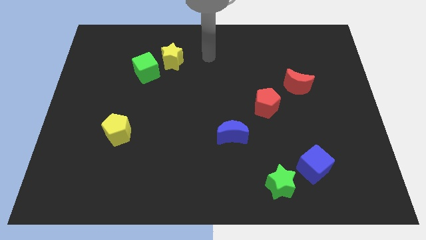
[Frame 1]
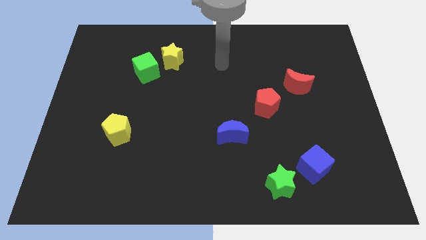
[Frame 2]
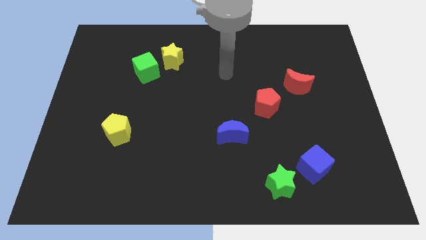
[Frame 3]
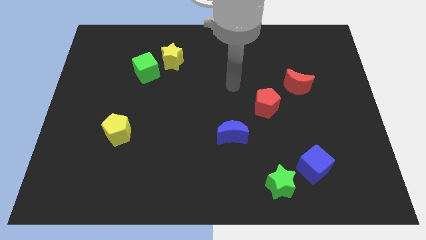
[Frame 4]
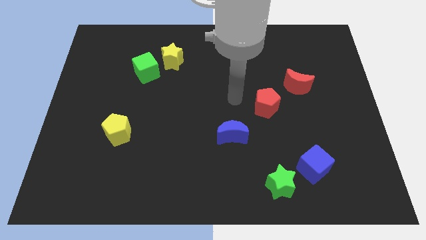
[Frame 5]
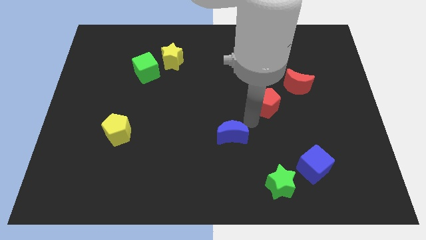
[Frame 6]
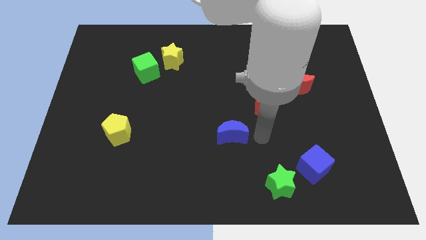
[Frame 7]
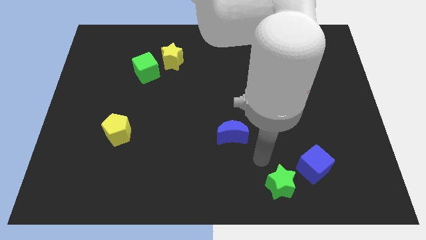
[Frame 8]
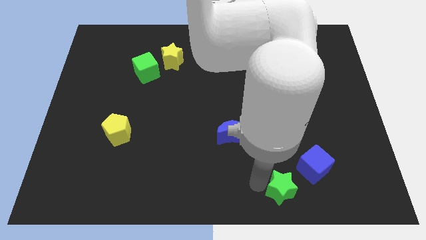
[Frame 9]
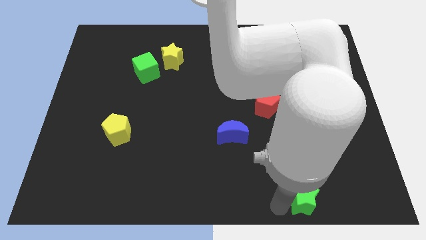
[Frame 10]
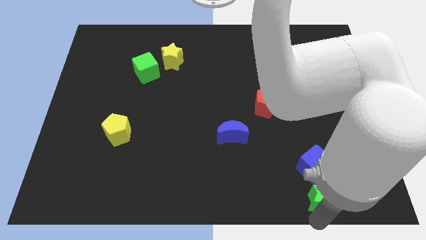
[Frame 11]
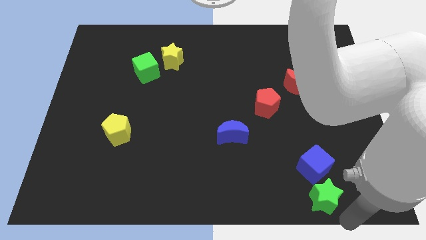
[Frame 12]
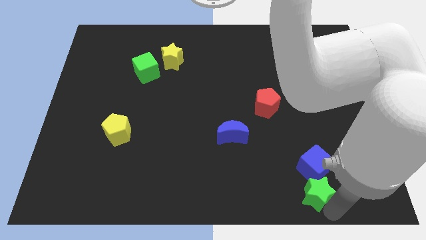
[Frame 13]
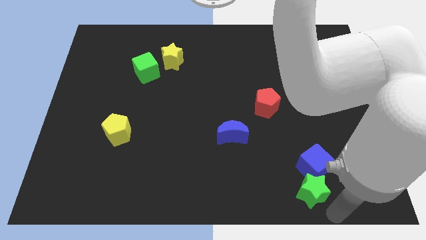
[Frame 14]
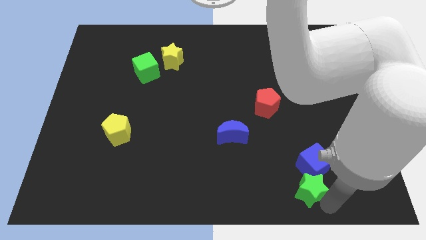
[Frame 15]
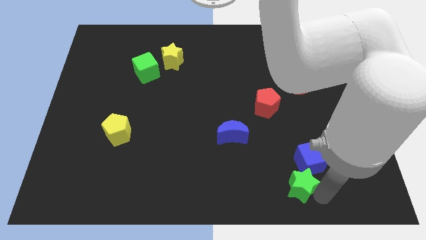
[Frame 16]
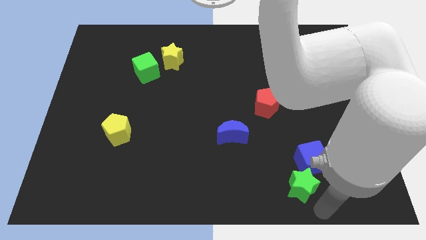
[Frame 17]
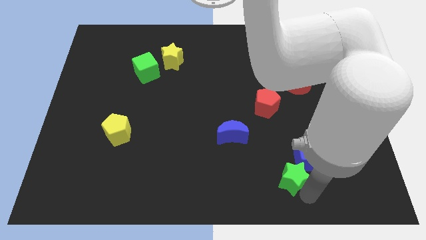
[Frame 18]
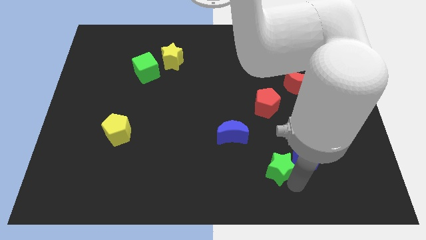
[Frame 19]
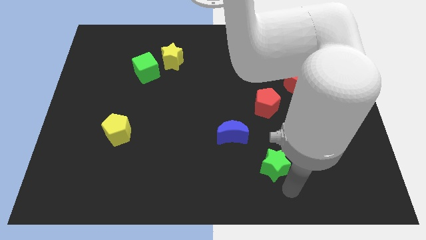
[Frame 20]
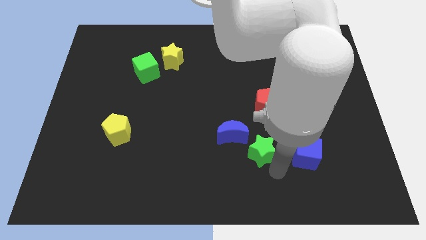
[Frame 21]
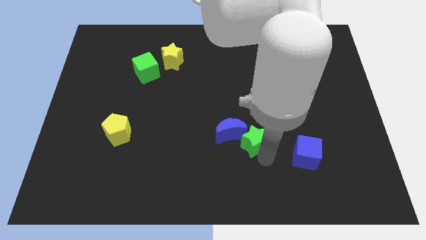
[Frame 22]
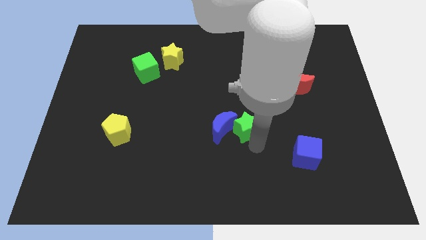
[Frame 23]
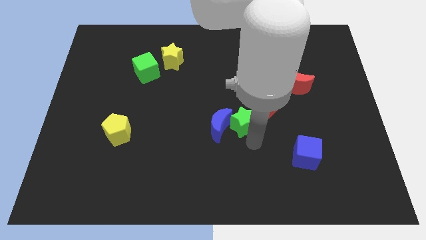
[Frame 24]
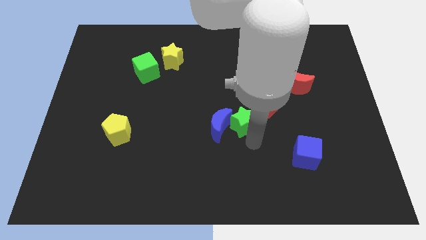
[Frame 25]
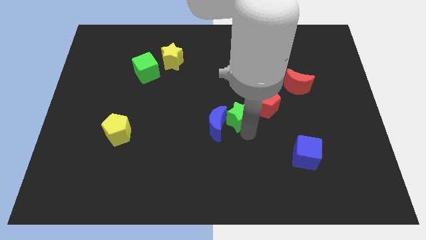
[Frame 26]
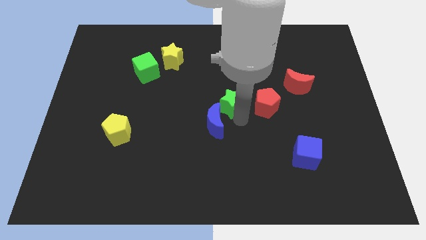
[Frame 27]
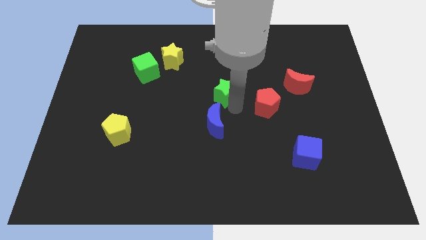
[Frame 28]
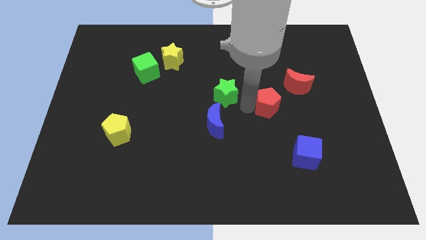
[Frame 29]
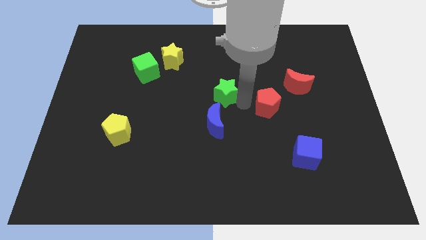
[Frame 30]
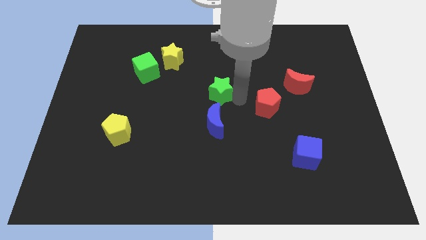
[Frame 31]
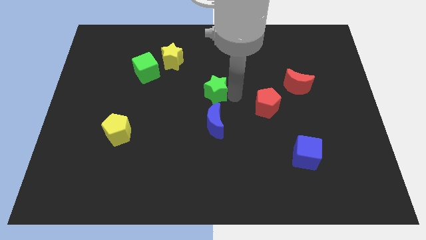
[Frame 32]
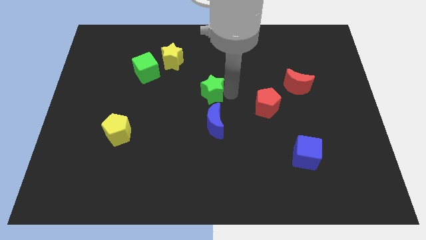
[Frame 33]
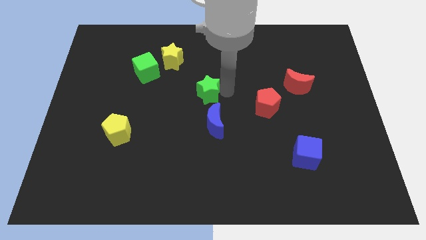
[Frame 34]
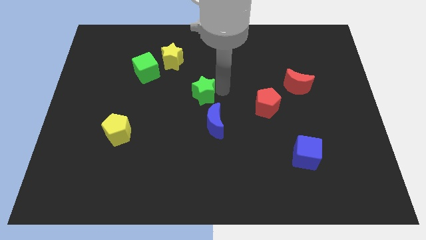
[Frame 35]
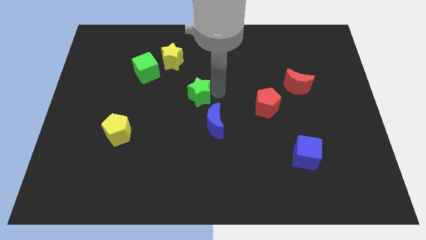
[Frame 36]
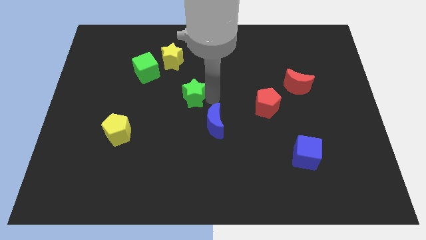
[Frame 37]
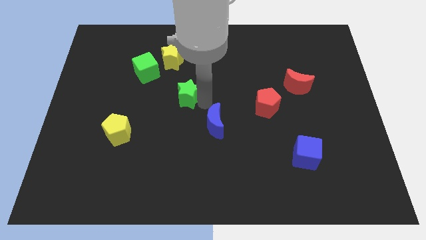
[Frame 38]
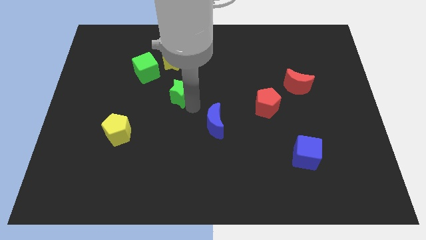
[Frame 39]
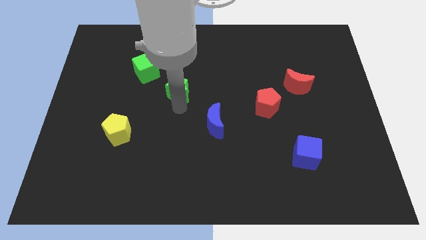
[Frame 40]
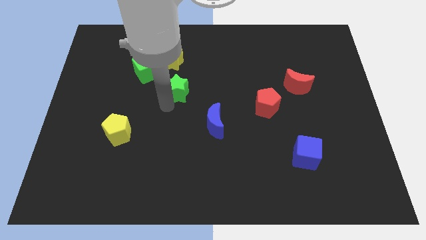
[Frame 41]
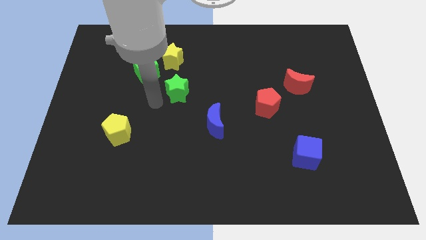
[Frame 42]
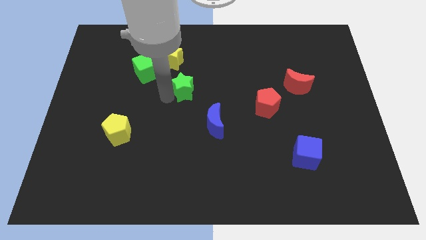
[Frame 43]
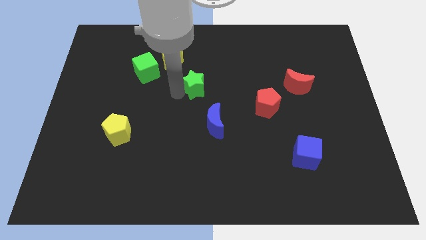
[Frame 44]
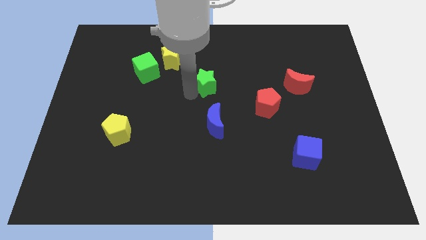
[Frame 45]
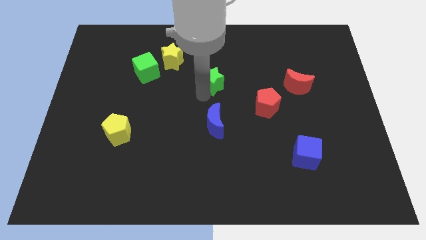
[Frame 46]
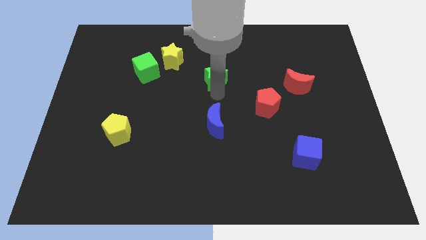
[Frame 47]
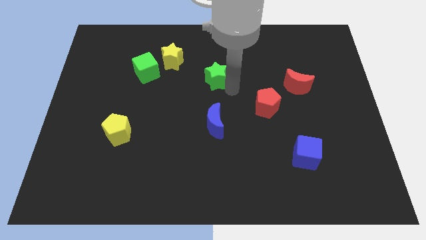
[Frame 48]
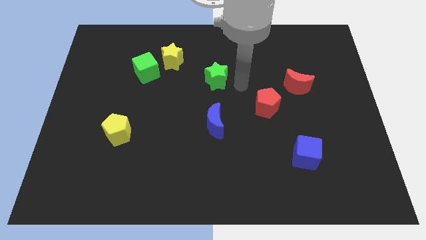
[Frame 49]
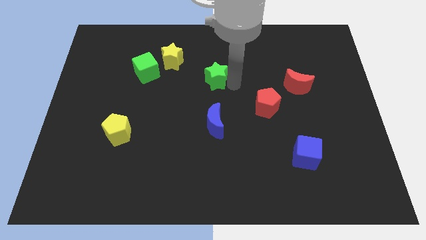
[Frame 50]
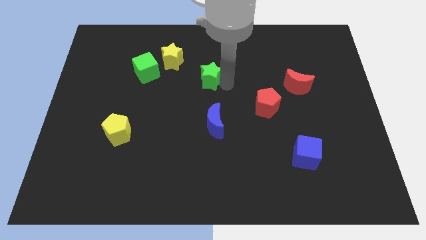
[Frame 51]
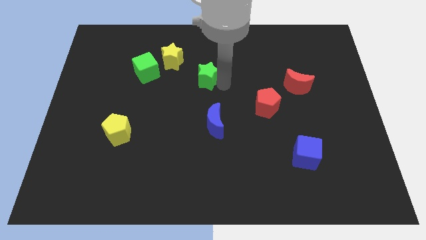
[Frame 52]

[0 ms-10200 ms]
move the green star to the right side of the green cube
